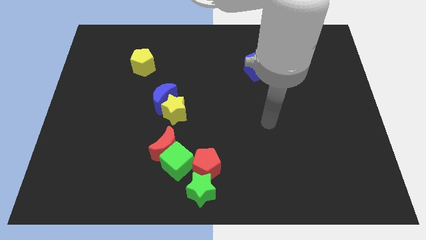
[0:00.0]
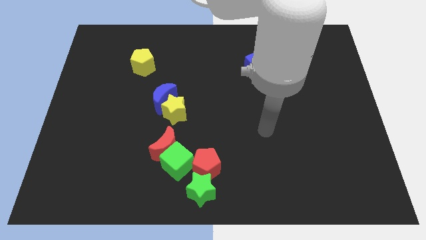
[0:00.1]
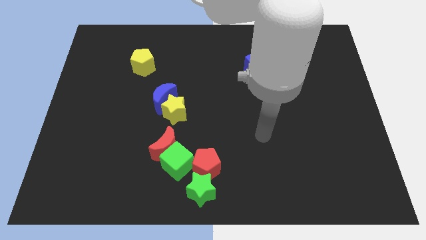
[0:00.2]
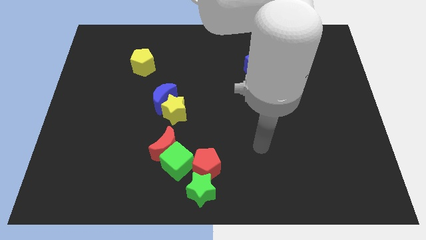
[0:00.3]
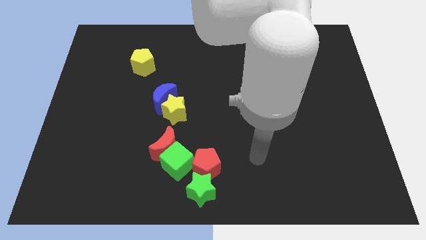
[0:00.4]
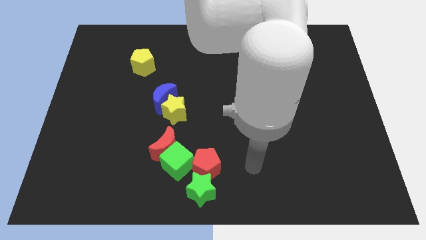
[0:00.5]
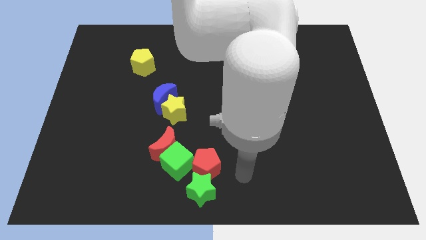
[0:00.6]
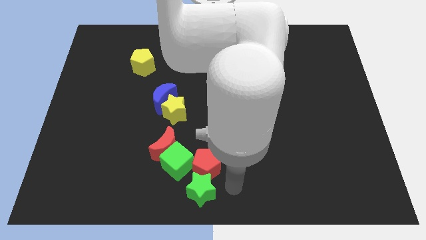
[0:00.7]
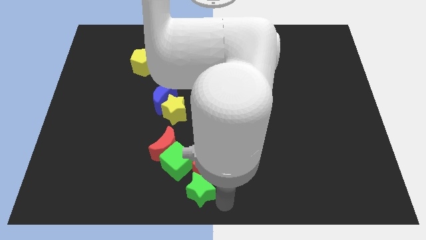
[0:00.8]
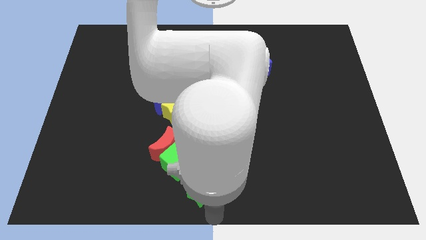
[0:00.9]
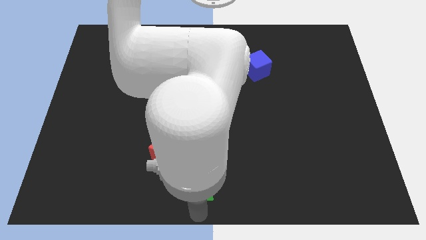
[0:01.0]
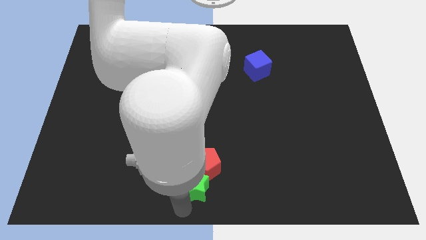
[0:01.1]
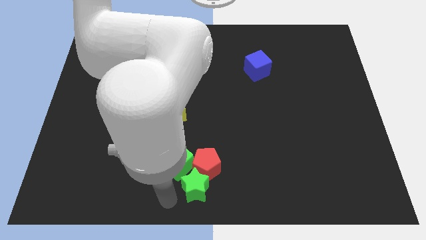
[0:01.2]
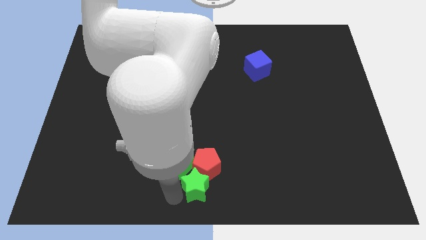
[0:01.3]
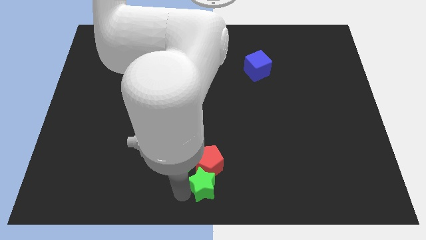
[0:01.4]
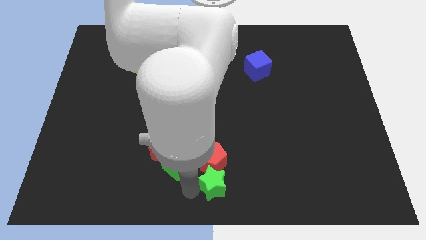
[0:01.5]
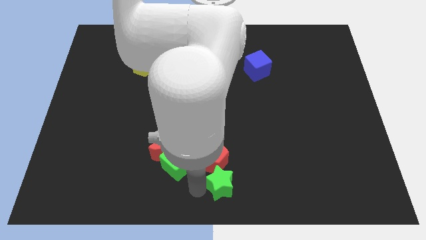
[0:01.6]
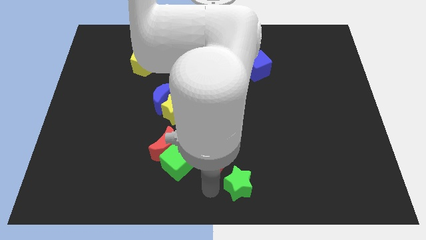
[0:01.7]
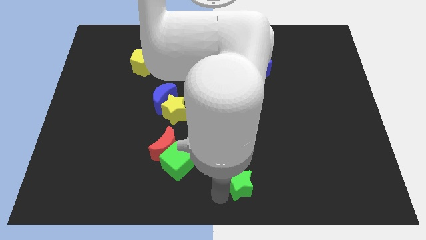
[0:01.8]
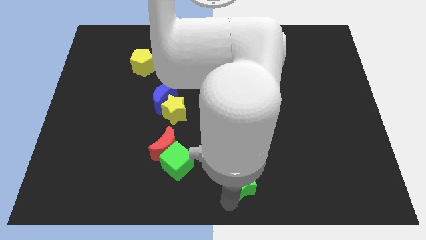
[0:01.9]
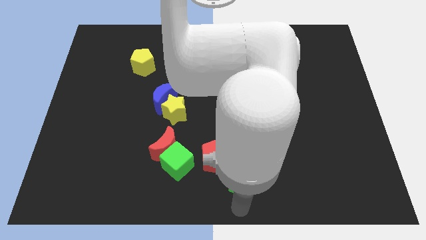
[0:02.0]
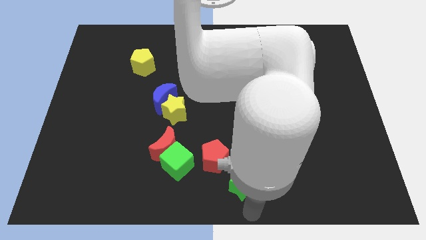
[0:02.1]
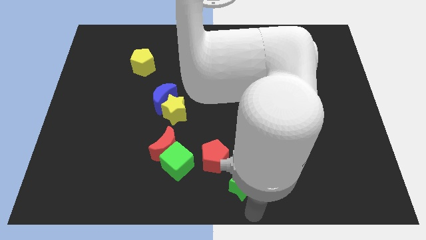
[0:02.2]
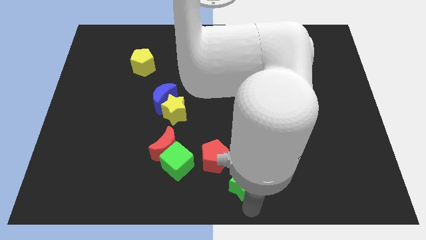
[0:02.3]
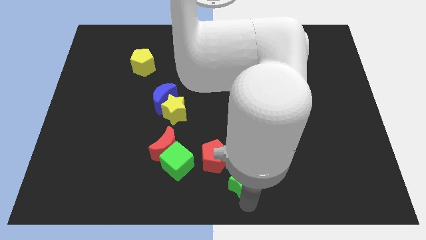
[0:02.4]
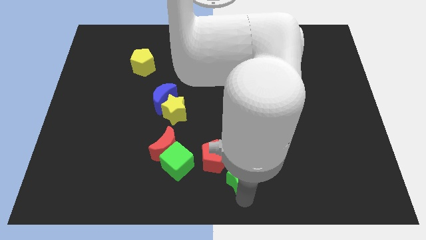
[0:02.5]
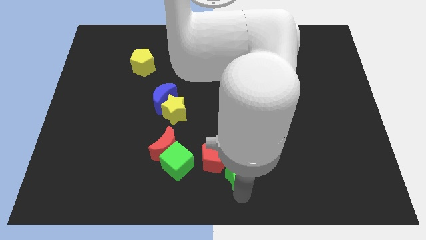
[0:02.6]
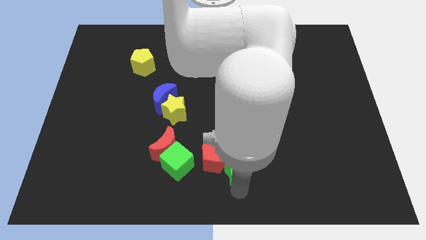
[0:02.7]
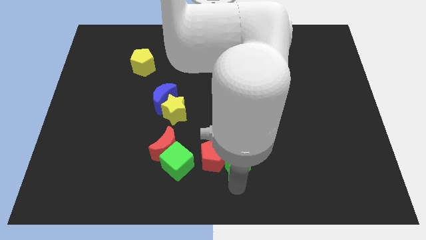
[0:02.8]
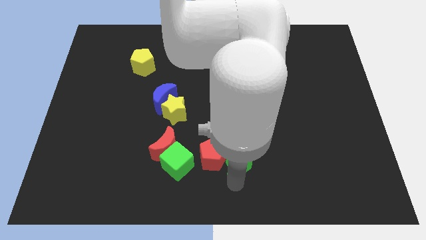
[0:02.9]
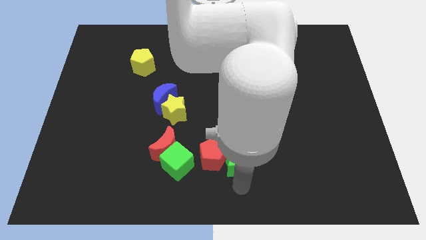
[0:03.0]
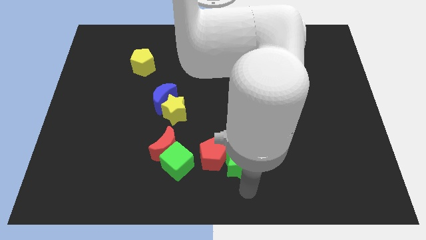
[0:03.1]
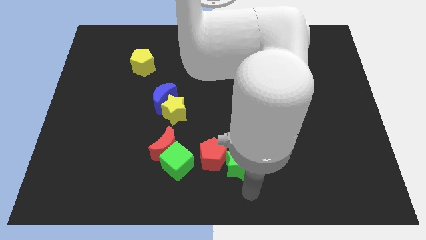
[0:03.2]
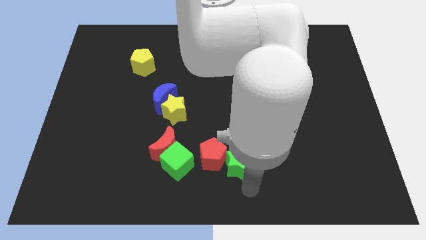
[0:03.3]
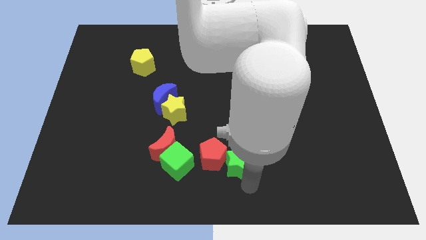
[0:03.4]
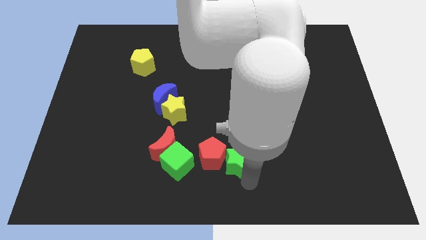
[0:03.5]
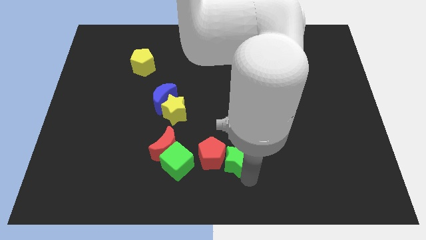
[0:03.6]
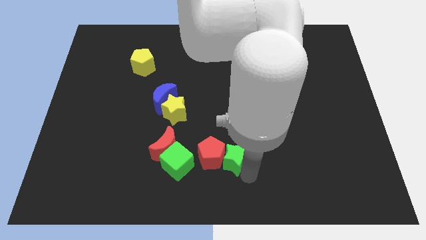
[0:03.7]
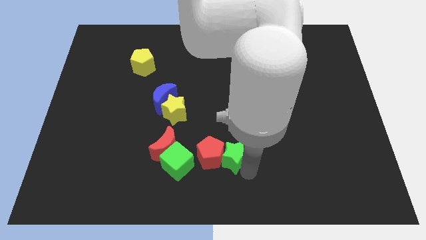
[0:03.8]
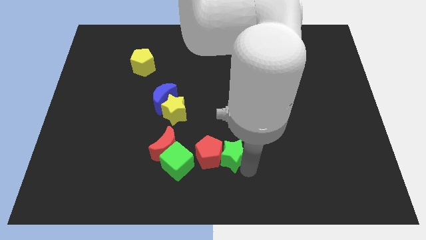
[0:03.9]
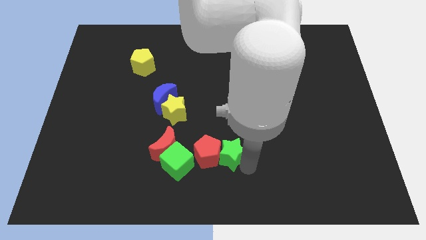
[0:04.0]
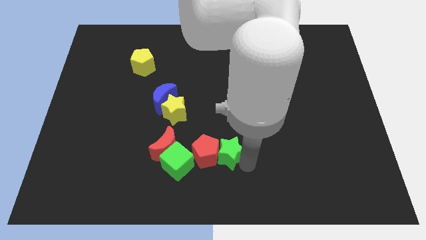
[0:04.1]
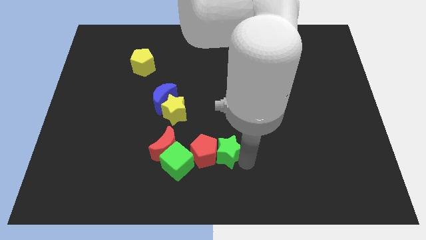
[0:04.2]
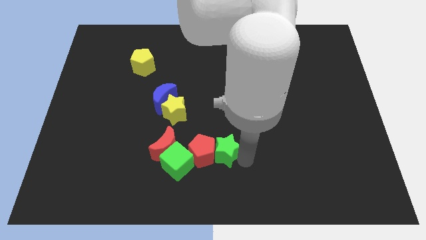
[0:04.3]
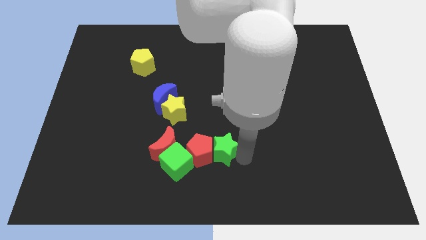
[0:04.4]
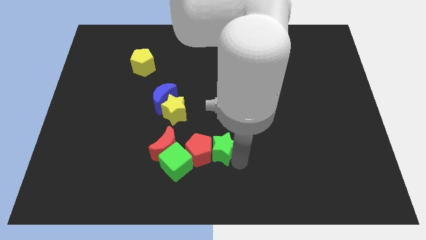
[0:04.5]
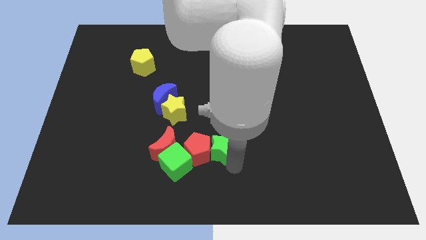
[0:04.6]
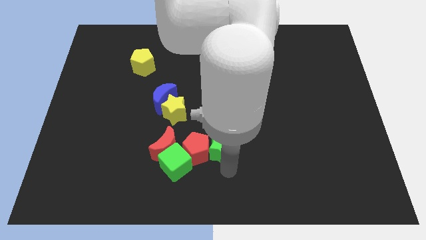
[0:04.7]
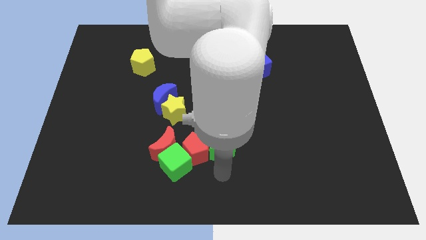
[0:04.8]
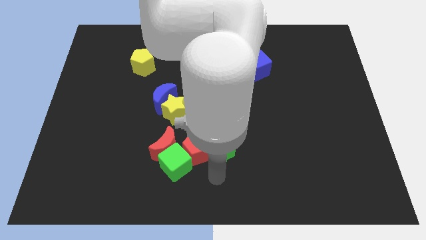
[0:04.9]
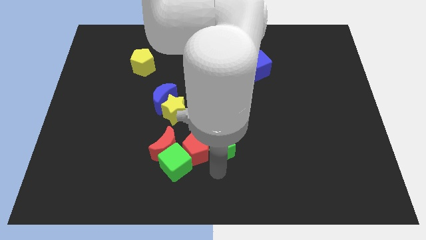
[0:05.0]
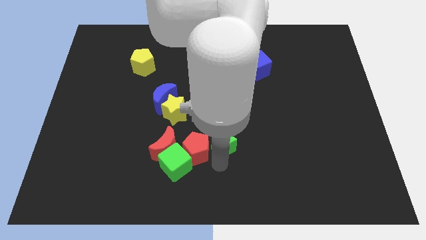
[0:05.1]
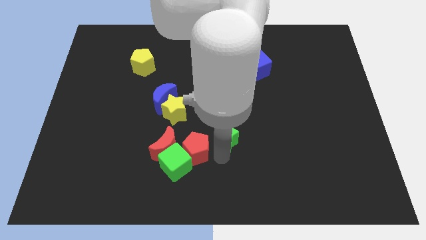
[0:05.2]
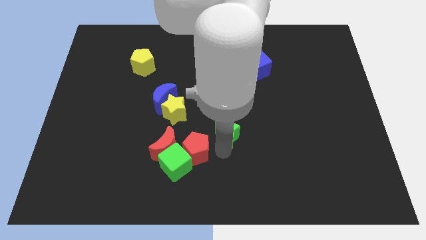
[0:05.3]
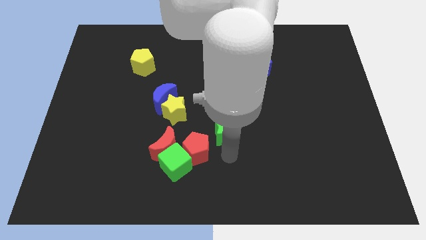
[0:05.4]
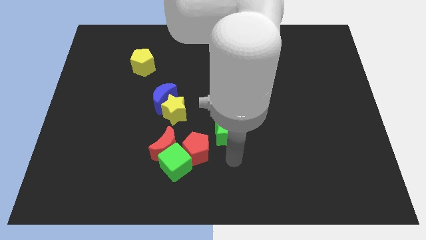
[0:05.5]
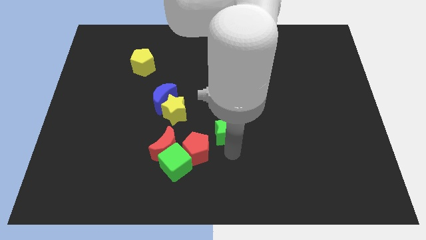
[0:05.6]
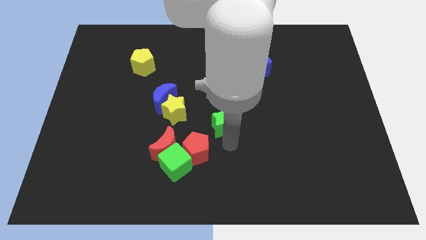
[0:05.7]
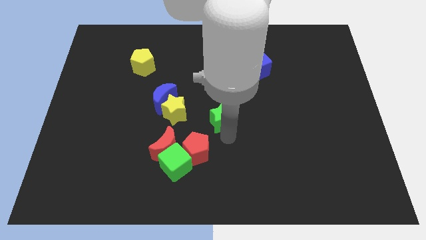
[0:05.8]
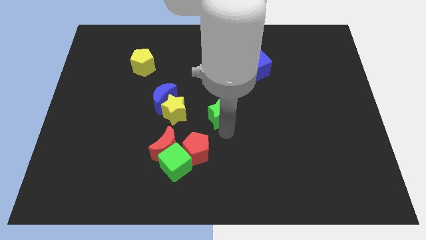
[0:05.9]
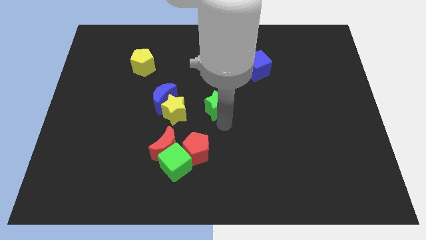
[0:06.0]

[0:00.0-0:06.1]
move the green star up

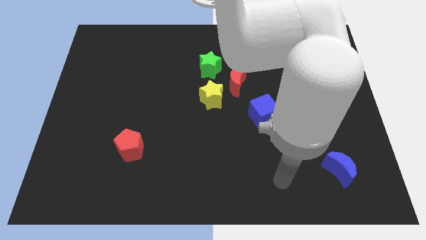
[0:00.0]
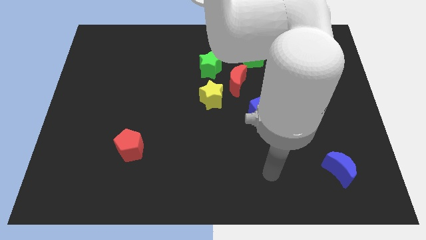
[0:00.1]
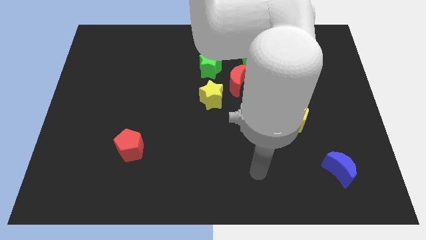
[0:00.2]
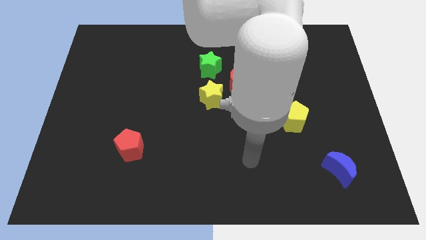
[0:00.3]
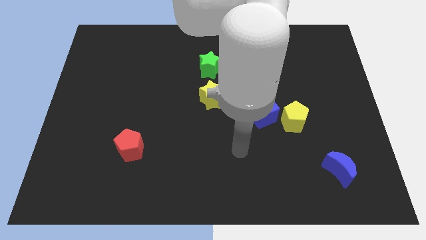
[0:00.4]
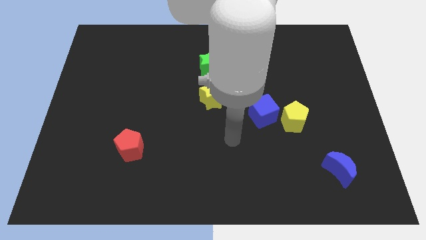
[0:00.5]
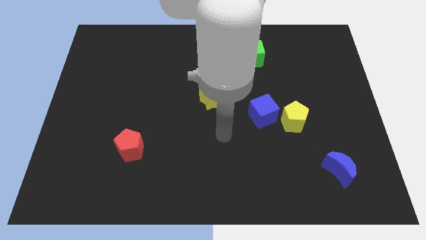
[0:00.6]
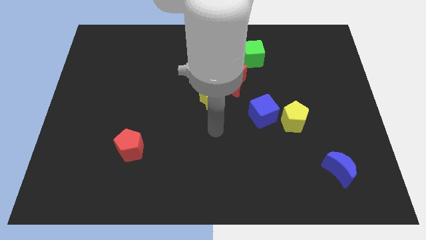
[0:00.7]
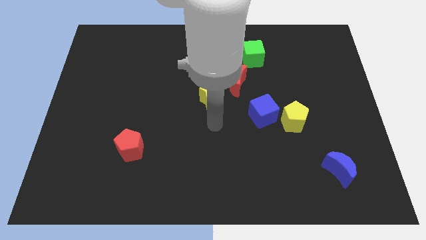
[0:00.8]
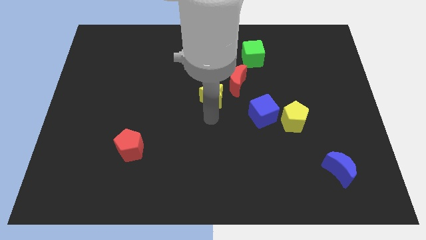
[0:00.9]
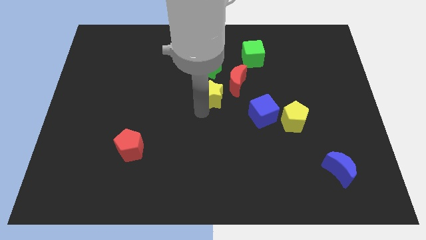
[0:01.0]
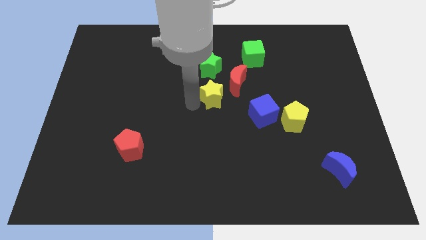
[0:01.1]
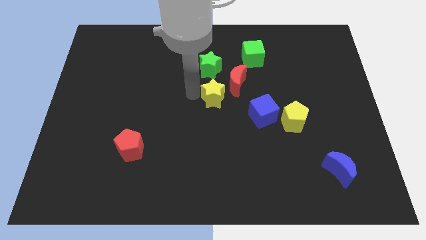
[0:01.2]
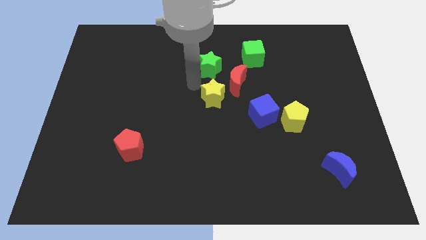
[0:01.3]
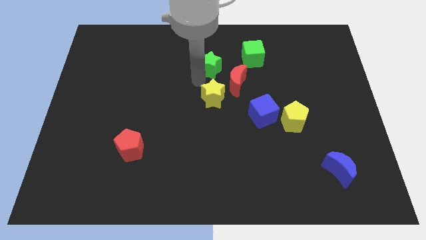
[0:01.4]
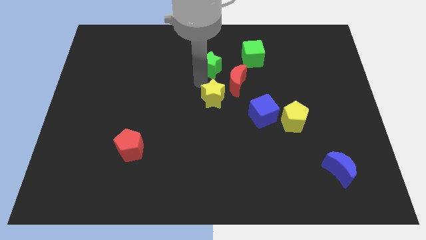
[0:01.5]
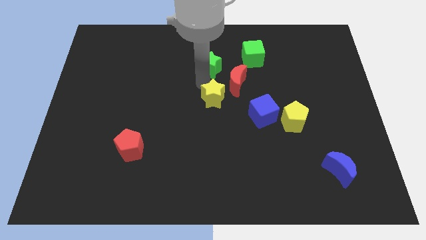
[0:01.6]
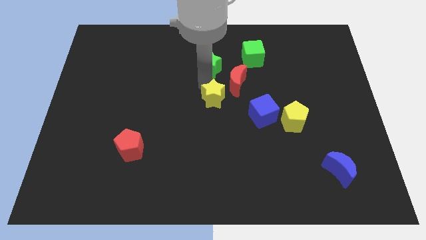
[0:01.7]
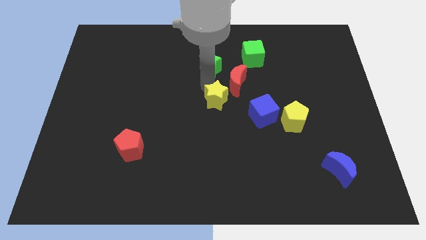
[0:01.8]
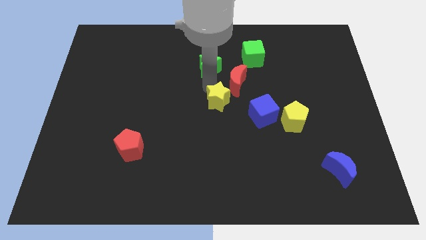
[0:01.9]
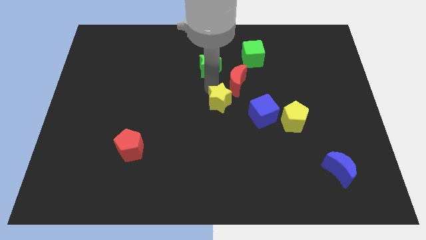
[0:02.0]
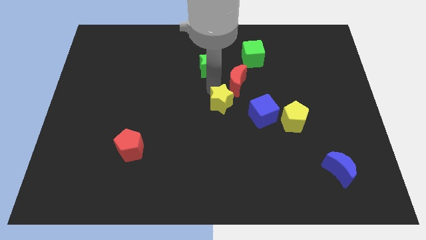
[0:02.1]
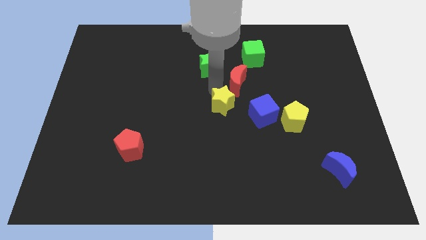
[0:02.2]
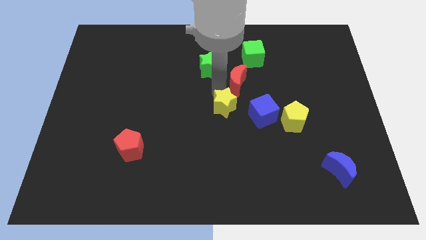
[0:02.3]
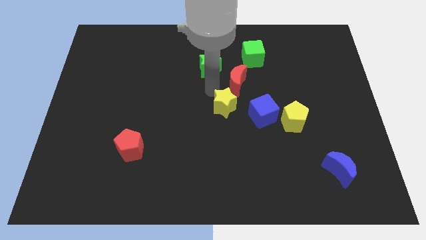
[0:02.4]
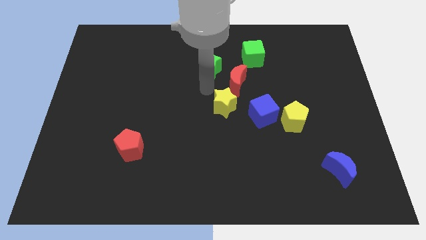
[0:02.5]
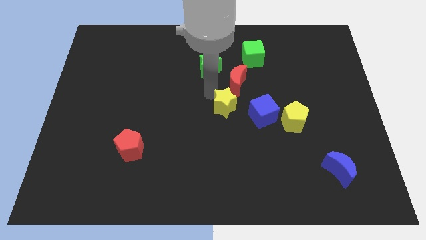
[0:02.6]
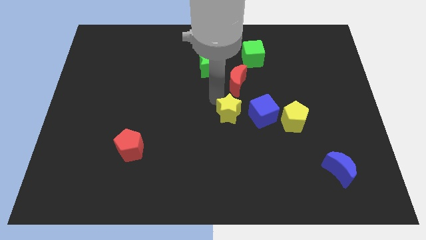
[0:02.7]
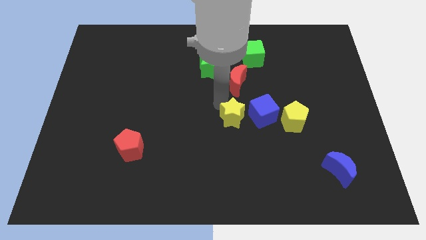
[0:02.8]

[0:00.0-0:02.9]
push the yellow star somewhat down and to the right
